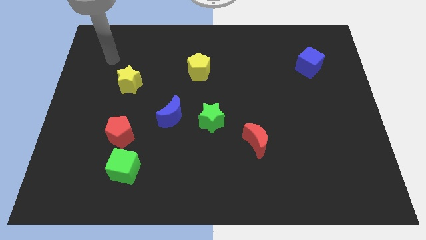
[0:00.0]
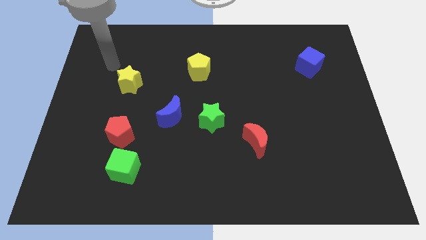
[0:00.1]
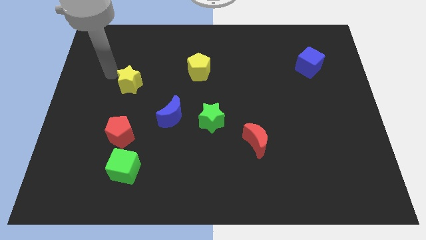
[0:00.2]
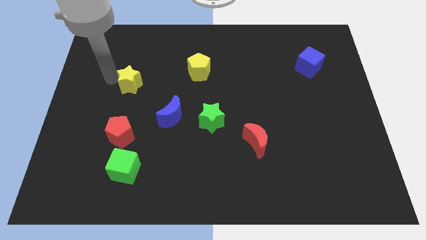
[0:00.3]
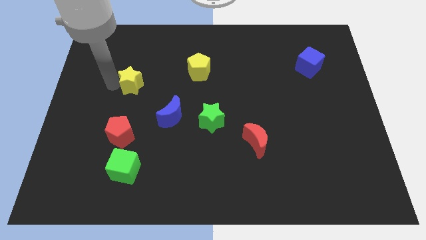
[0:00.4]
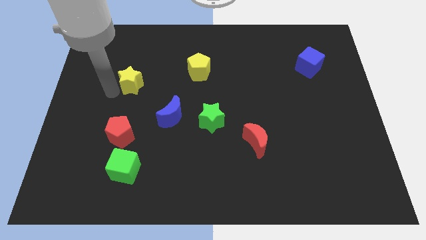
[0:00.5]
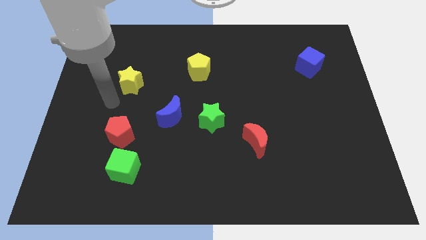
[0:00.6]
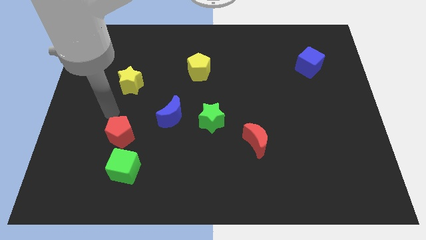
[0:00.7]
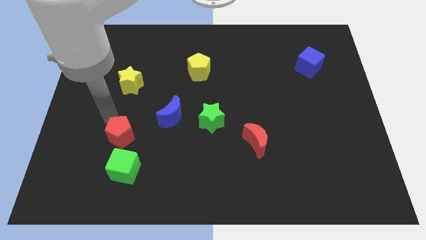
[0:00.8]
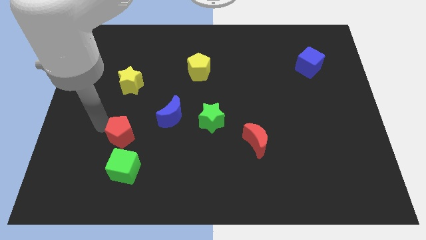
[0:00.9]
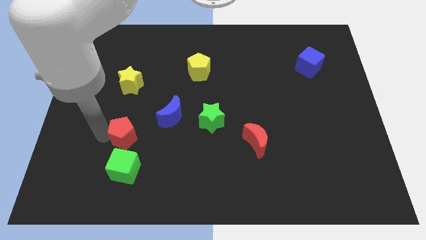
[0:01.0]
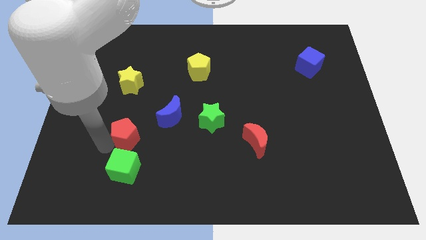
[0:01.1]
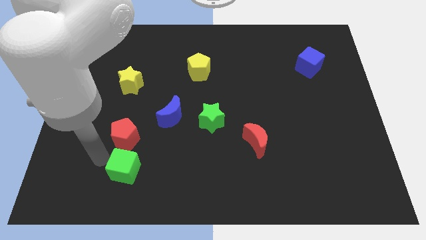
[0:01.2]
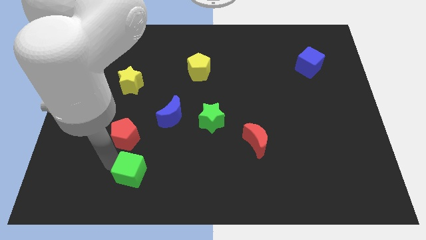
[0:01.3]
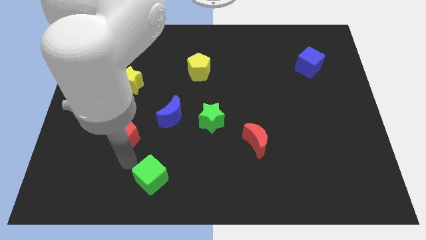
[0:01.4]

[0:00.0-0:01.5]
move the red pentagon away from the green cube

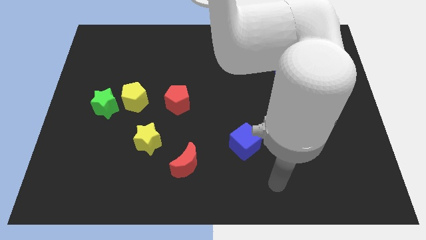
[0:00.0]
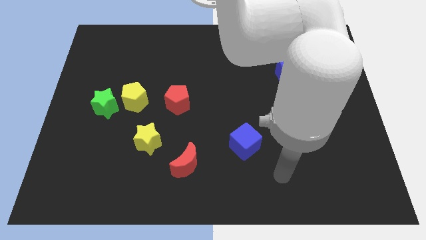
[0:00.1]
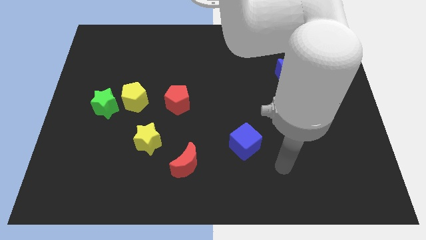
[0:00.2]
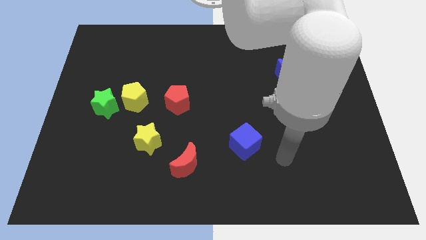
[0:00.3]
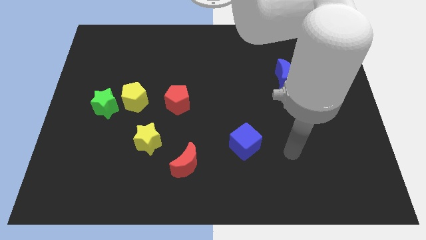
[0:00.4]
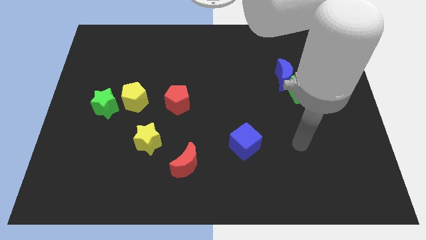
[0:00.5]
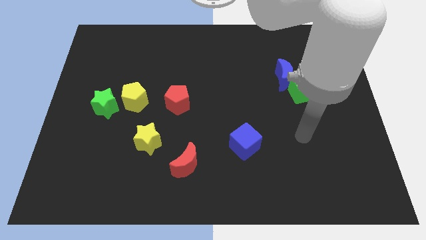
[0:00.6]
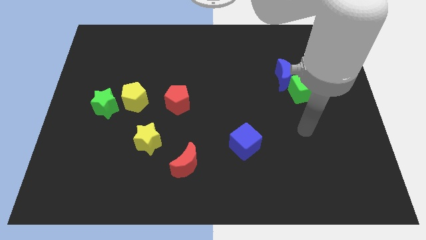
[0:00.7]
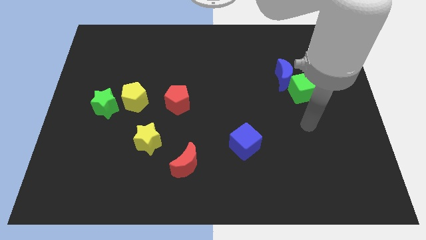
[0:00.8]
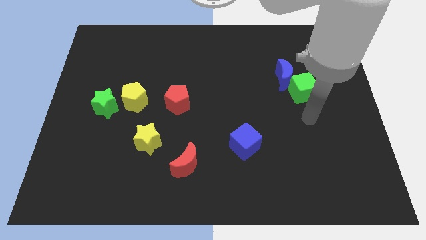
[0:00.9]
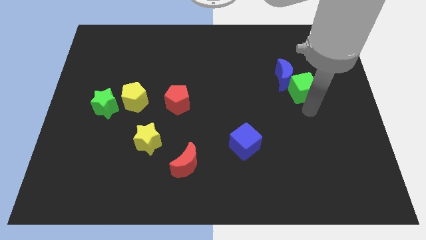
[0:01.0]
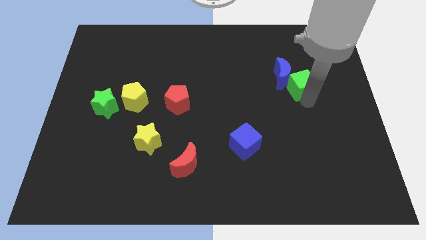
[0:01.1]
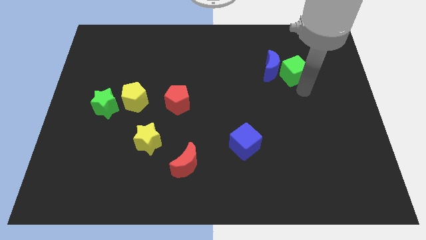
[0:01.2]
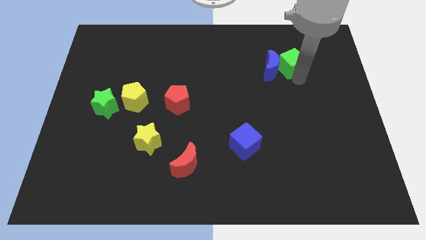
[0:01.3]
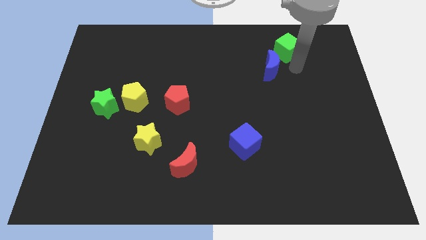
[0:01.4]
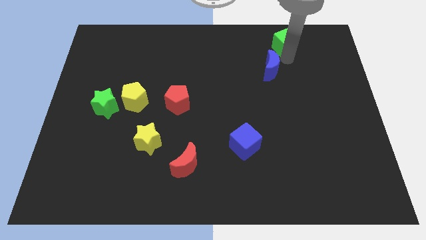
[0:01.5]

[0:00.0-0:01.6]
move the blue moon away from the green cube

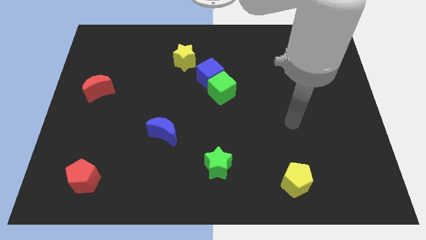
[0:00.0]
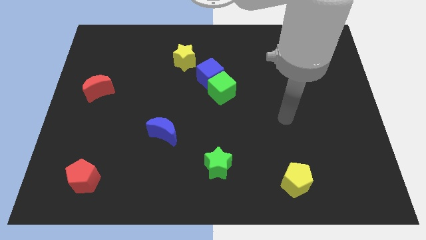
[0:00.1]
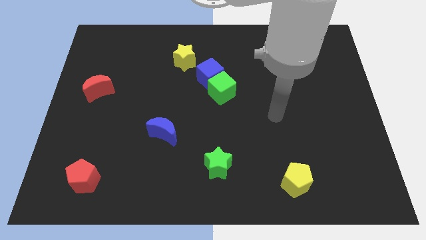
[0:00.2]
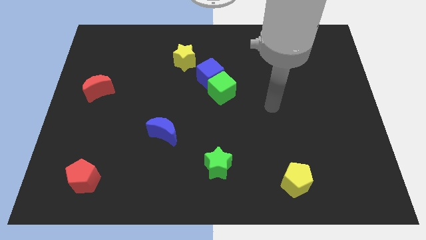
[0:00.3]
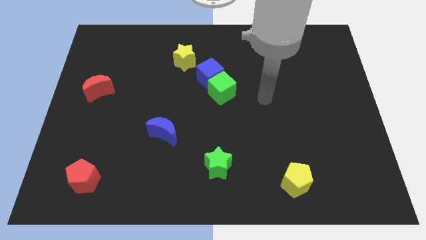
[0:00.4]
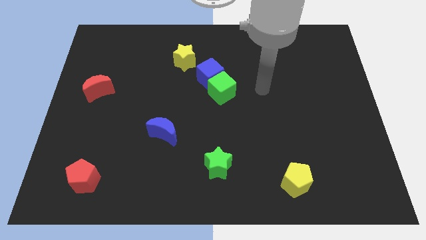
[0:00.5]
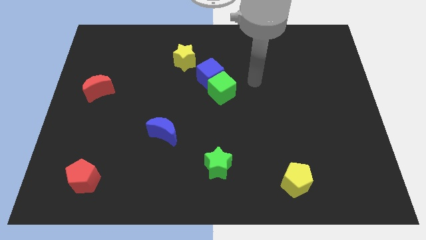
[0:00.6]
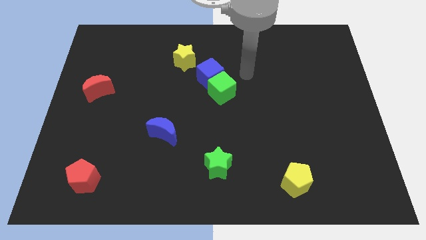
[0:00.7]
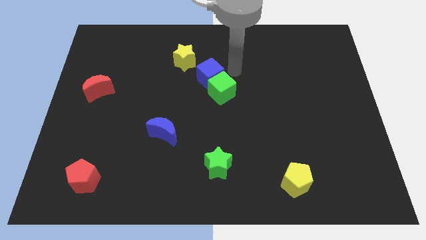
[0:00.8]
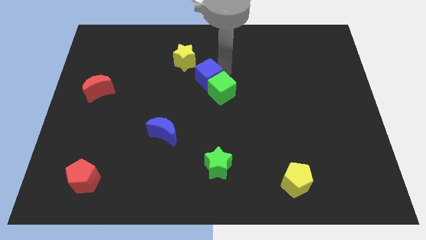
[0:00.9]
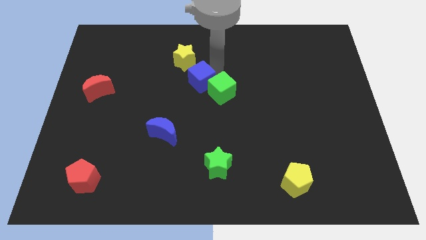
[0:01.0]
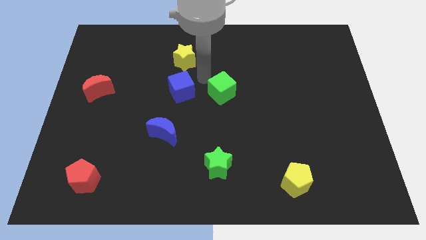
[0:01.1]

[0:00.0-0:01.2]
separate the green cube from the blue cube

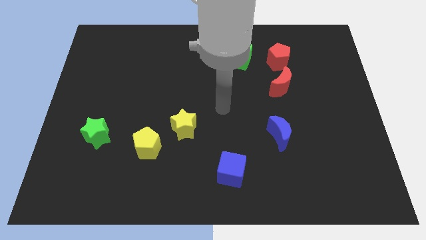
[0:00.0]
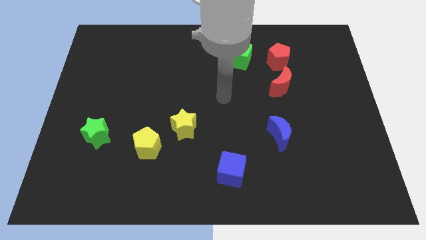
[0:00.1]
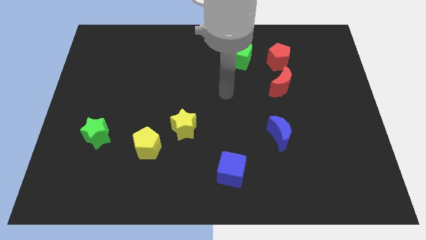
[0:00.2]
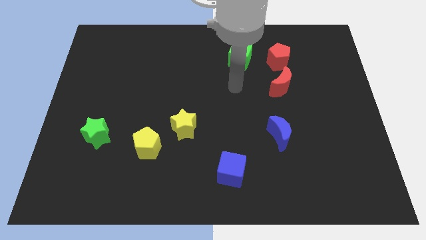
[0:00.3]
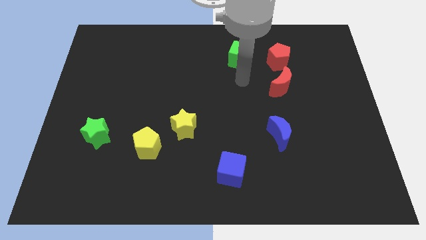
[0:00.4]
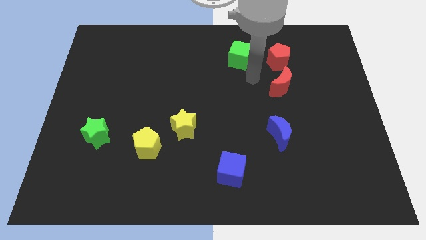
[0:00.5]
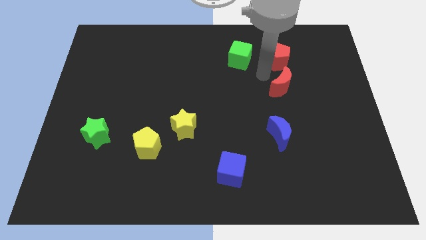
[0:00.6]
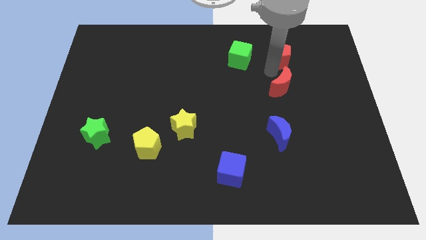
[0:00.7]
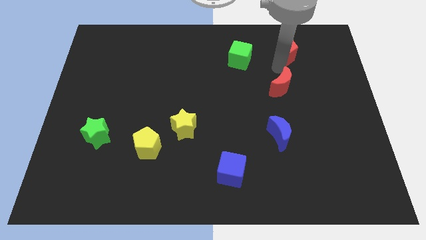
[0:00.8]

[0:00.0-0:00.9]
move the red moon away from the red pentagon

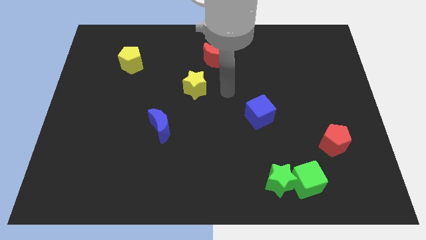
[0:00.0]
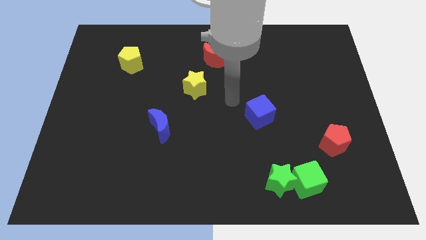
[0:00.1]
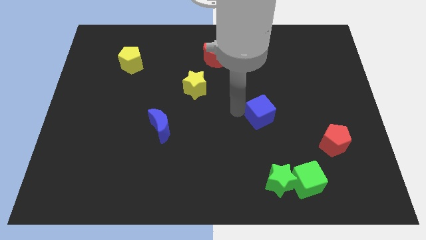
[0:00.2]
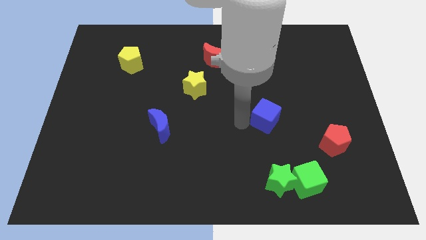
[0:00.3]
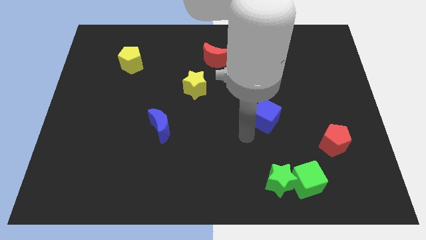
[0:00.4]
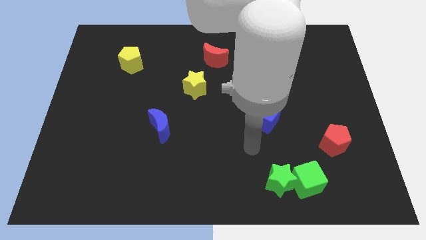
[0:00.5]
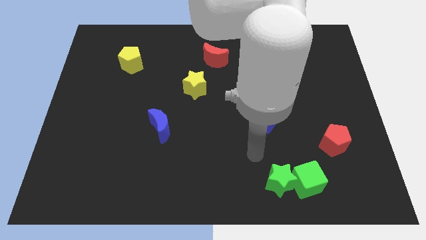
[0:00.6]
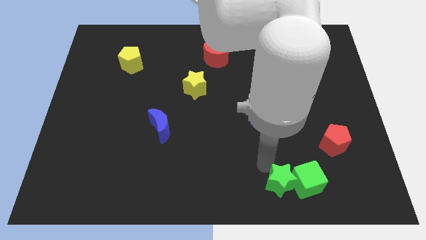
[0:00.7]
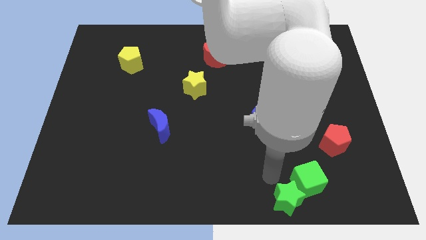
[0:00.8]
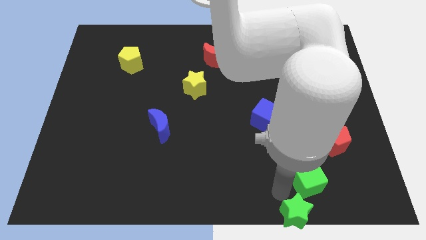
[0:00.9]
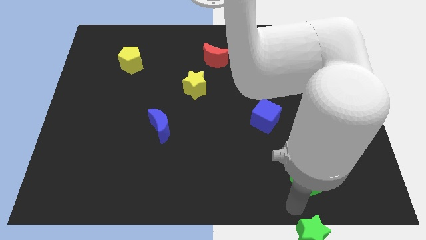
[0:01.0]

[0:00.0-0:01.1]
separate the green cube from the green star

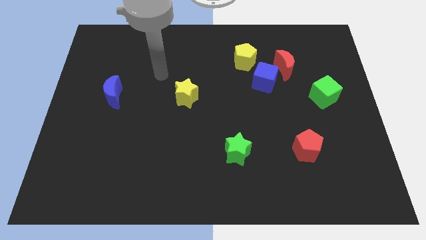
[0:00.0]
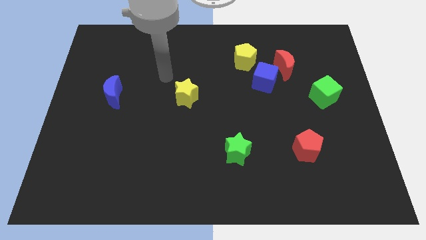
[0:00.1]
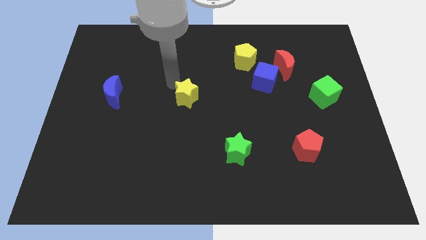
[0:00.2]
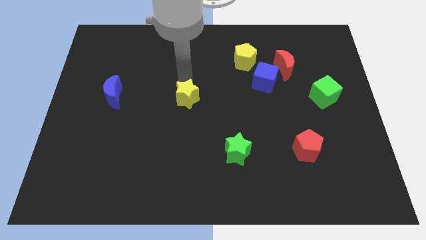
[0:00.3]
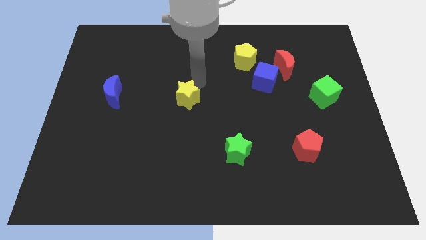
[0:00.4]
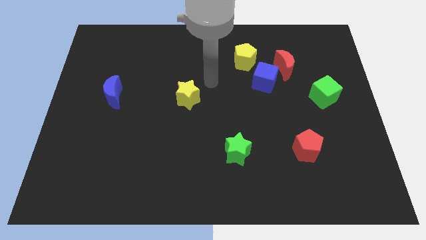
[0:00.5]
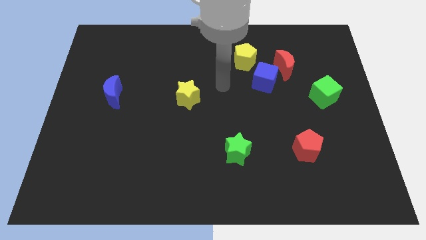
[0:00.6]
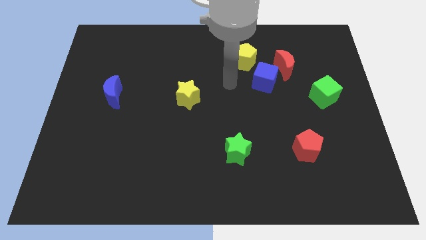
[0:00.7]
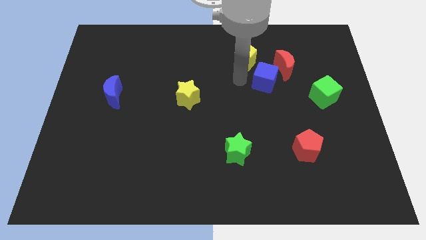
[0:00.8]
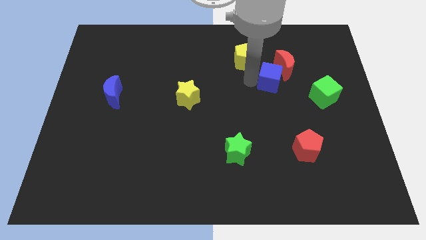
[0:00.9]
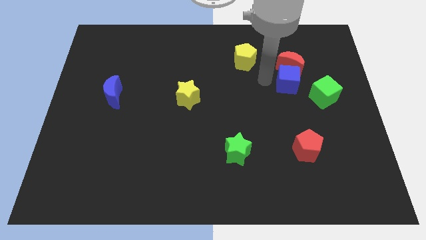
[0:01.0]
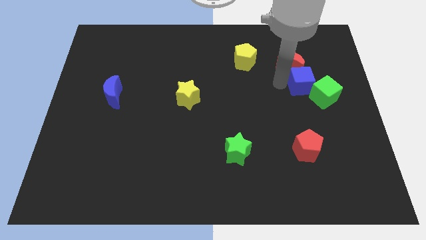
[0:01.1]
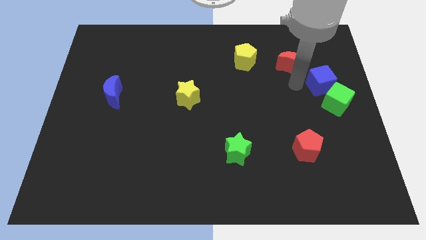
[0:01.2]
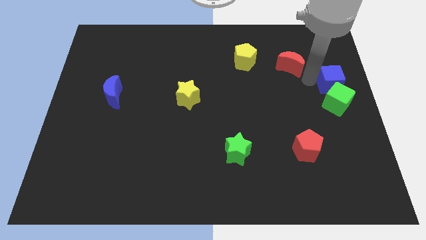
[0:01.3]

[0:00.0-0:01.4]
pull the red moon apart from the blue cube

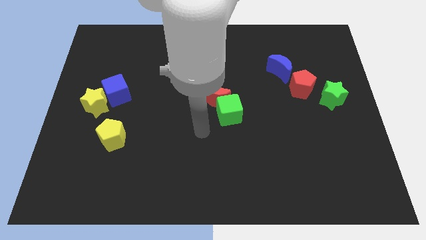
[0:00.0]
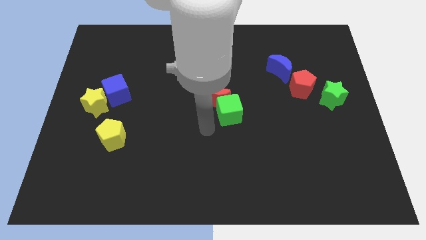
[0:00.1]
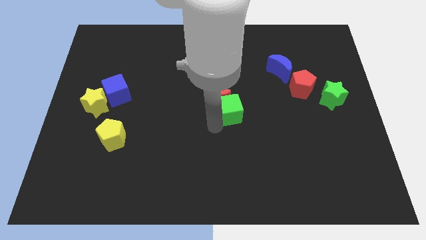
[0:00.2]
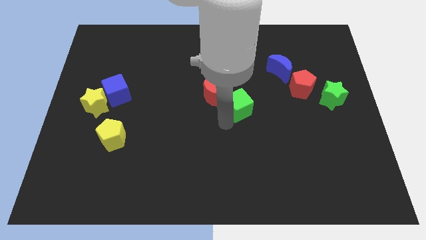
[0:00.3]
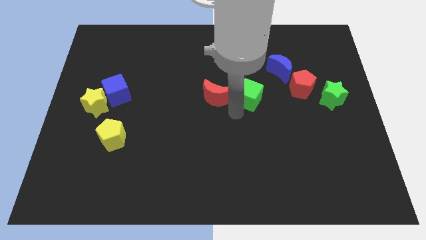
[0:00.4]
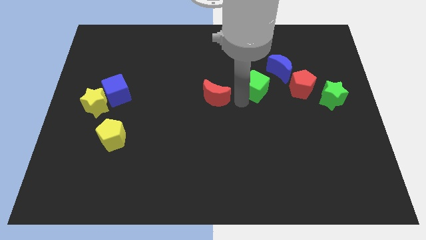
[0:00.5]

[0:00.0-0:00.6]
move the red moon away from the green cube

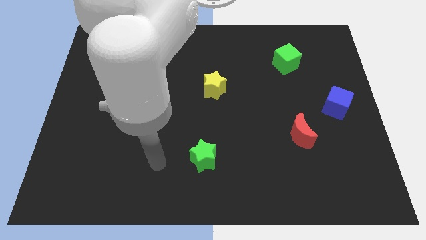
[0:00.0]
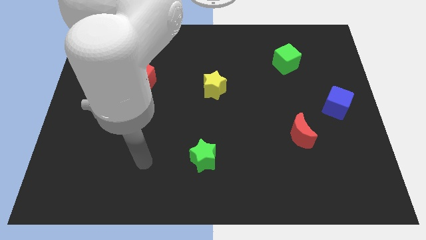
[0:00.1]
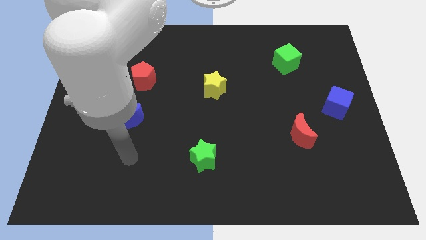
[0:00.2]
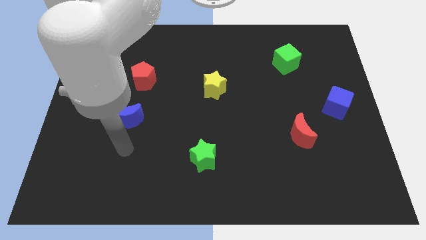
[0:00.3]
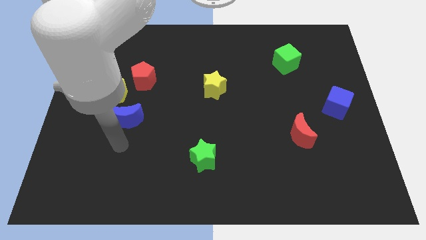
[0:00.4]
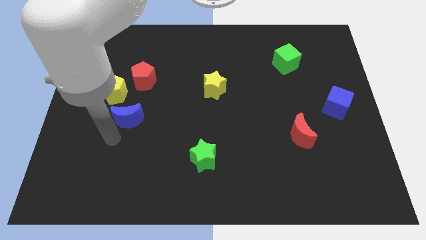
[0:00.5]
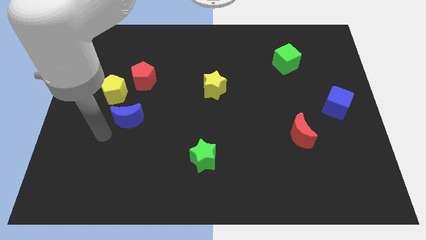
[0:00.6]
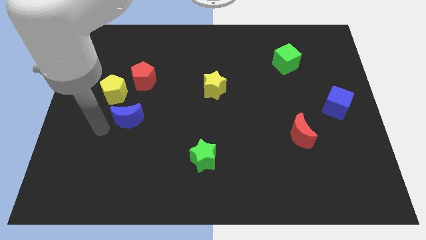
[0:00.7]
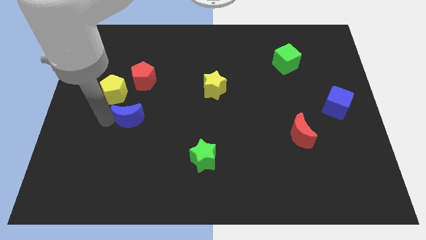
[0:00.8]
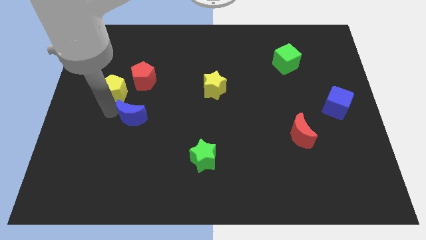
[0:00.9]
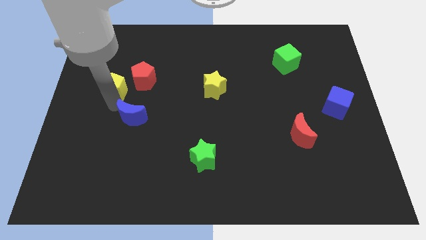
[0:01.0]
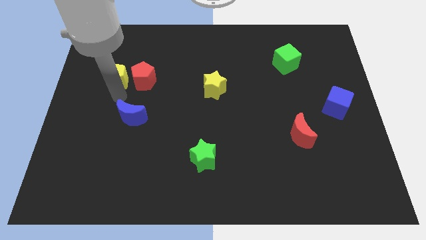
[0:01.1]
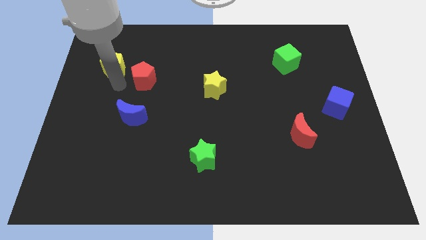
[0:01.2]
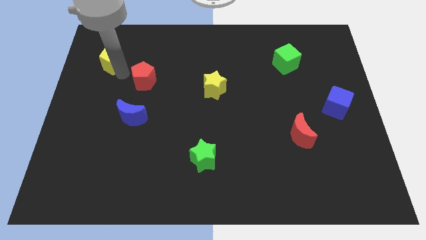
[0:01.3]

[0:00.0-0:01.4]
pull the red pentagon apart from the yellow pentagon
